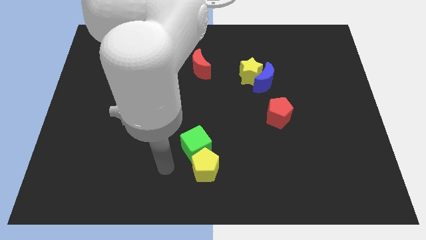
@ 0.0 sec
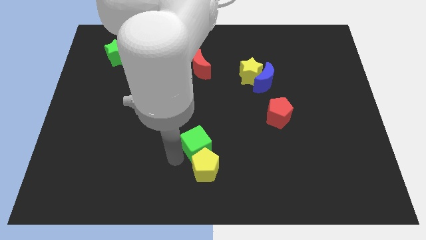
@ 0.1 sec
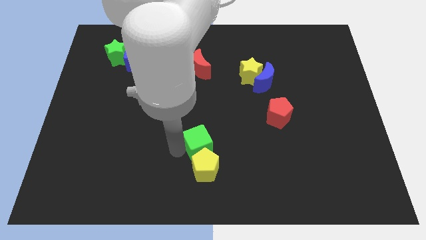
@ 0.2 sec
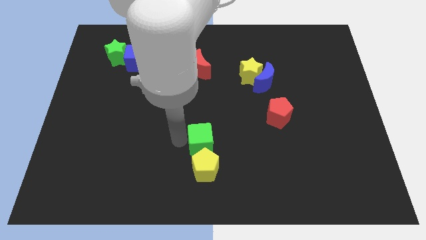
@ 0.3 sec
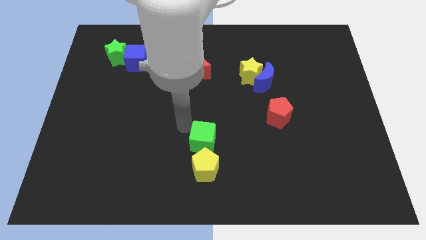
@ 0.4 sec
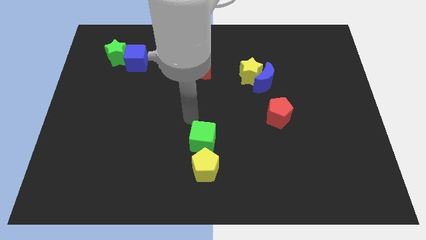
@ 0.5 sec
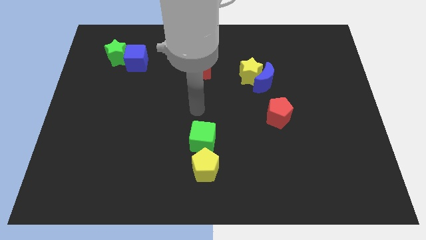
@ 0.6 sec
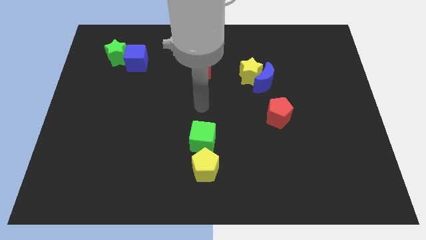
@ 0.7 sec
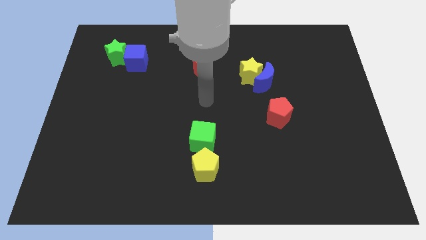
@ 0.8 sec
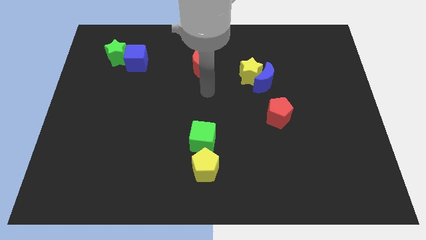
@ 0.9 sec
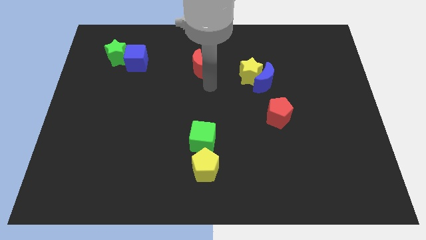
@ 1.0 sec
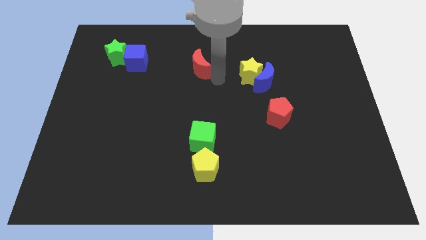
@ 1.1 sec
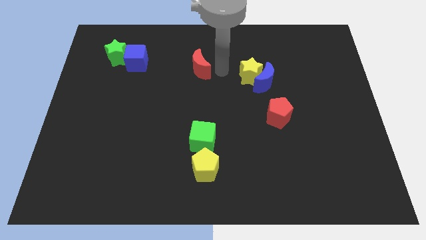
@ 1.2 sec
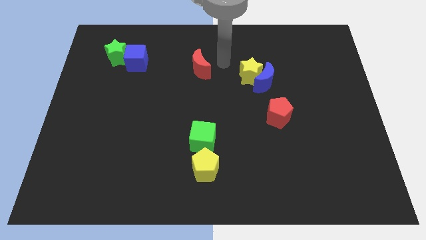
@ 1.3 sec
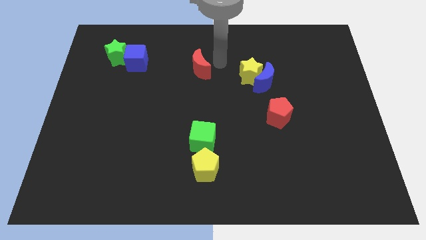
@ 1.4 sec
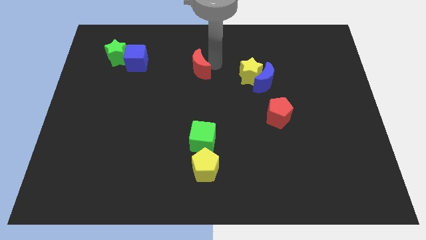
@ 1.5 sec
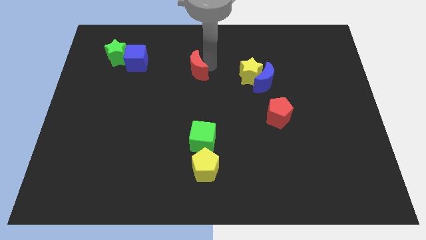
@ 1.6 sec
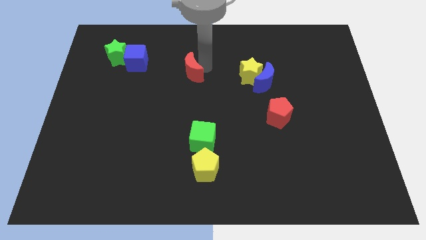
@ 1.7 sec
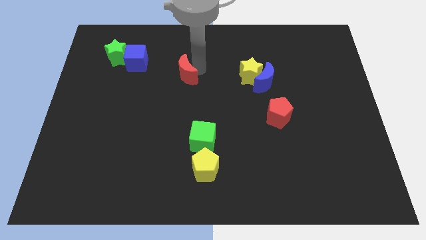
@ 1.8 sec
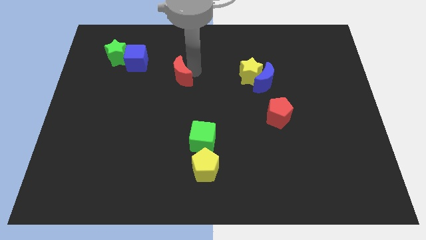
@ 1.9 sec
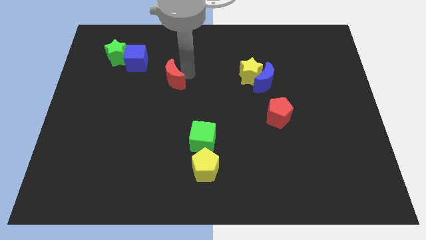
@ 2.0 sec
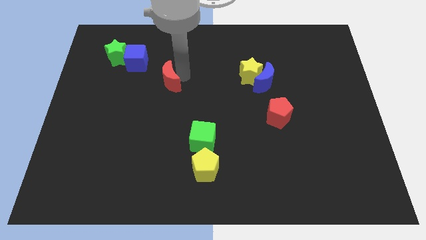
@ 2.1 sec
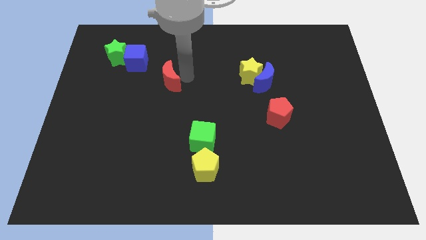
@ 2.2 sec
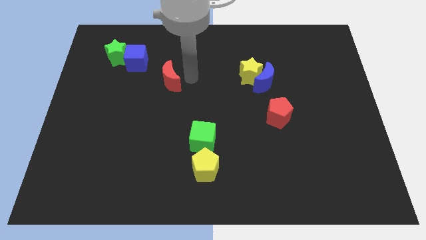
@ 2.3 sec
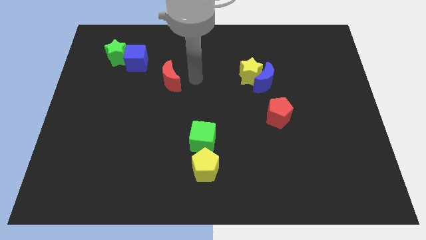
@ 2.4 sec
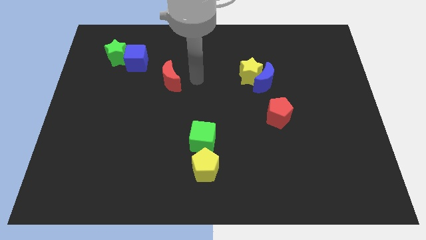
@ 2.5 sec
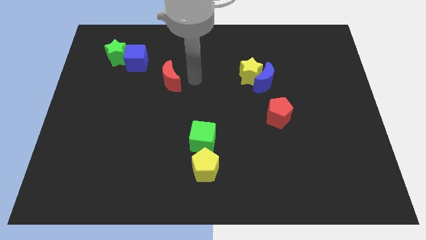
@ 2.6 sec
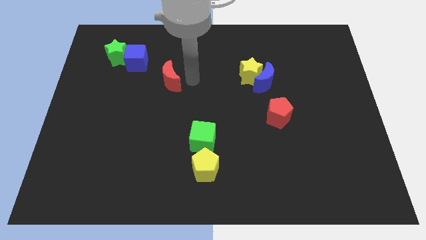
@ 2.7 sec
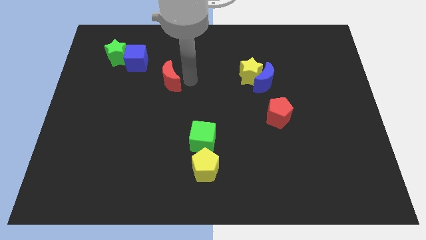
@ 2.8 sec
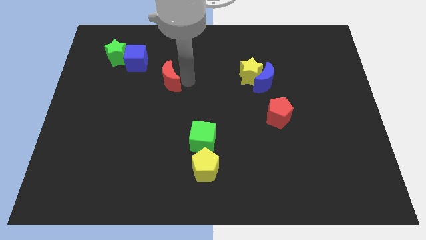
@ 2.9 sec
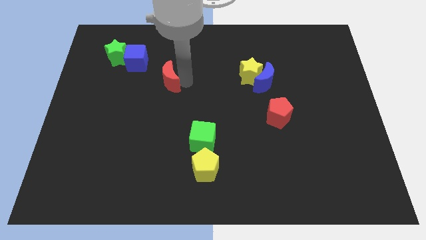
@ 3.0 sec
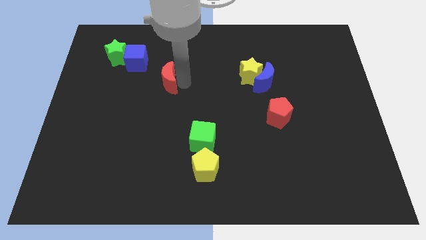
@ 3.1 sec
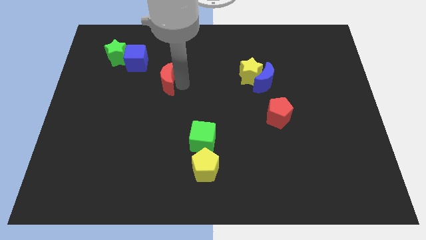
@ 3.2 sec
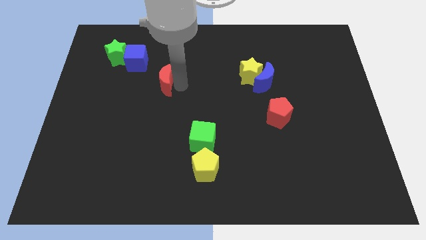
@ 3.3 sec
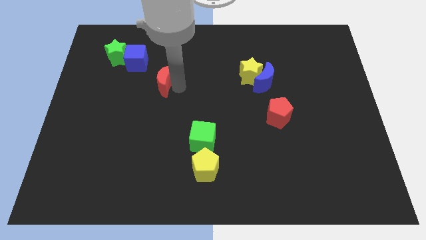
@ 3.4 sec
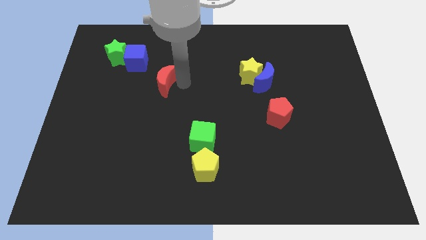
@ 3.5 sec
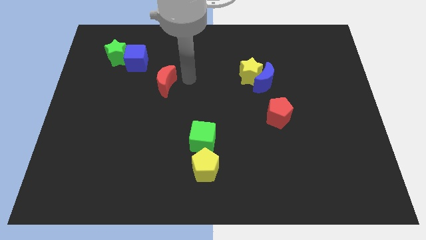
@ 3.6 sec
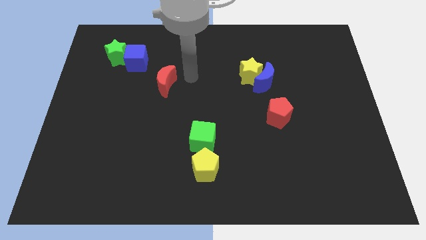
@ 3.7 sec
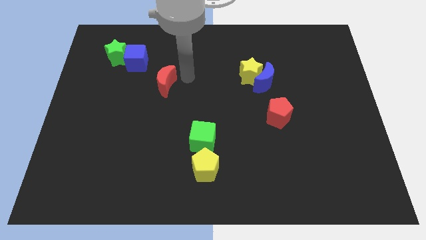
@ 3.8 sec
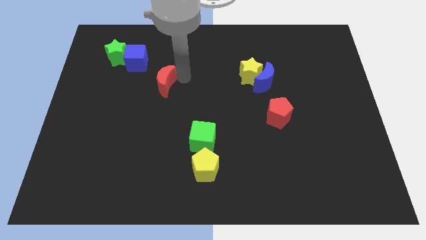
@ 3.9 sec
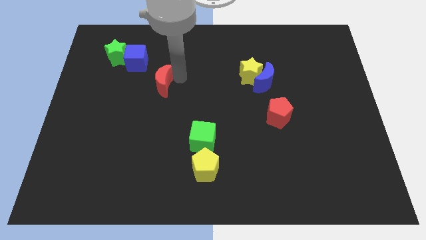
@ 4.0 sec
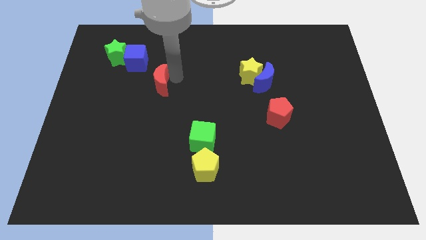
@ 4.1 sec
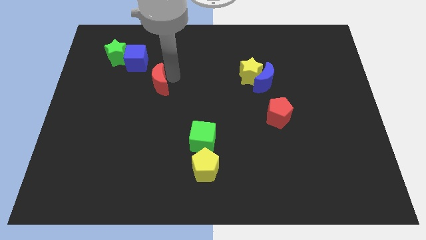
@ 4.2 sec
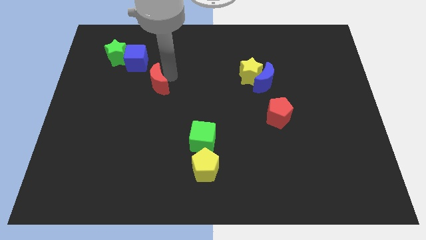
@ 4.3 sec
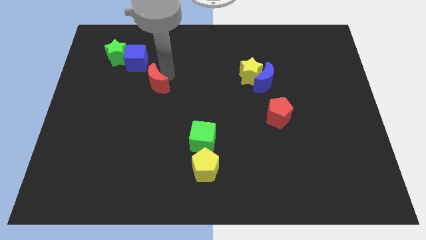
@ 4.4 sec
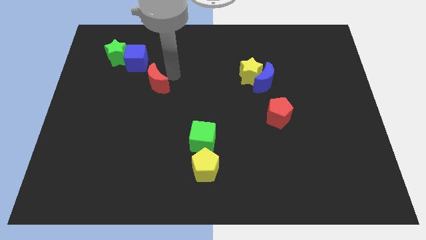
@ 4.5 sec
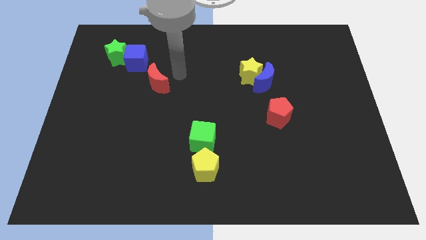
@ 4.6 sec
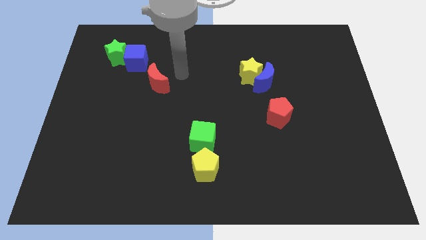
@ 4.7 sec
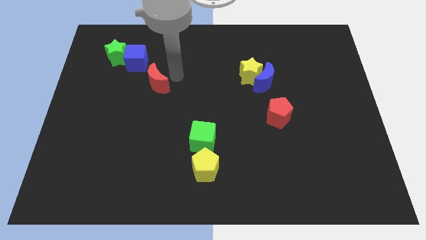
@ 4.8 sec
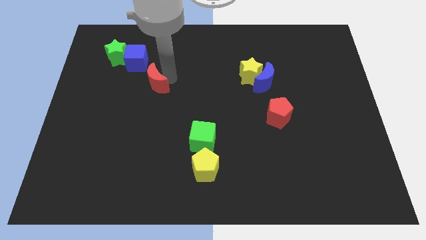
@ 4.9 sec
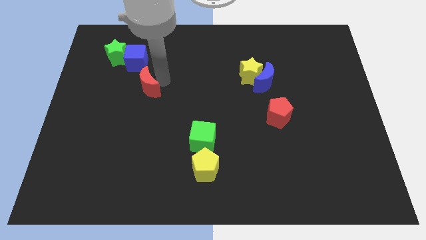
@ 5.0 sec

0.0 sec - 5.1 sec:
move the red moon below the blue cube

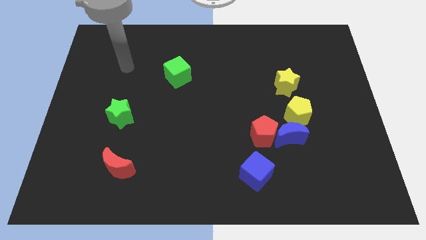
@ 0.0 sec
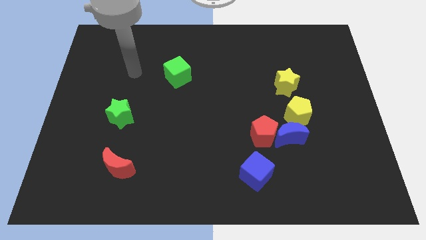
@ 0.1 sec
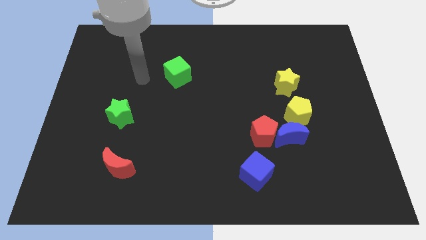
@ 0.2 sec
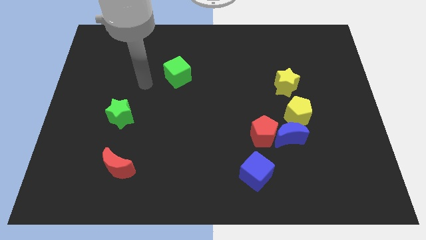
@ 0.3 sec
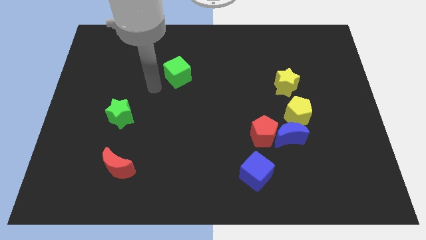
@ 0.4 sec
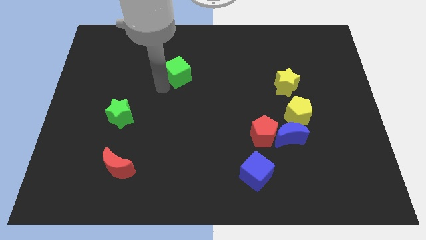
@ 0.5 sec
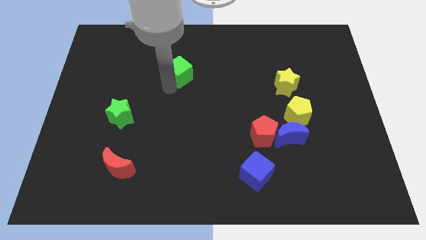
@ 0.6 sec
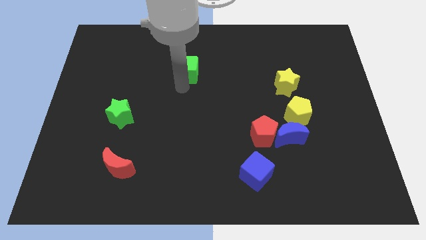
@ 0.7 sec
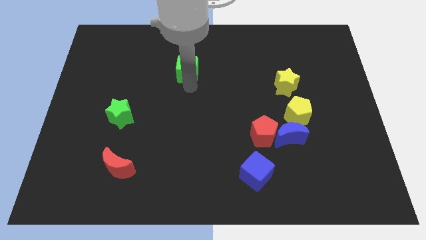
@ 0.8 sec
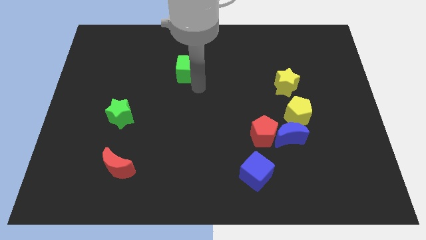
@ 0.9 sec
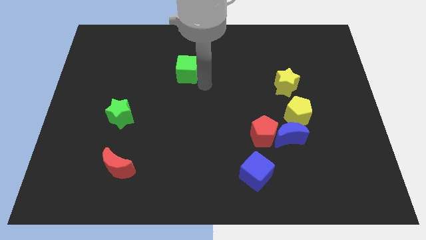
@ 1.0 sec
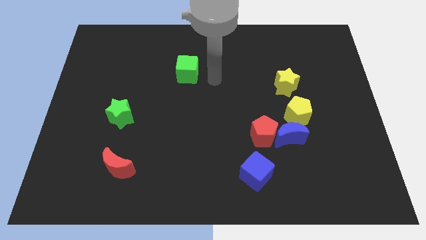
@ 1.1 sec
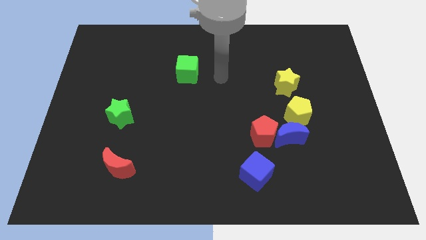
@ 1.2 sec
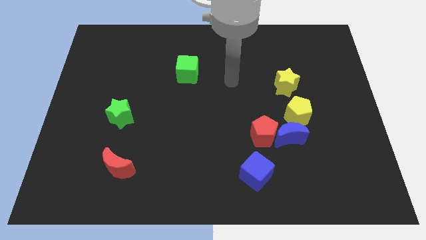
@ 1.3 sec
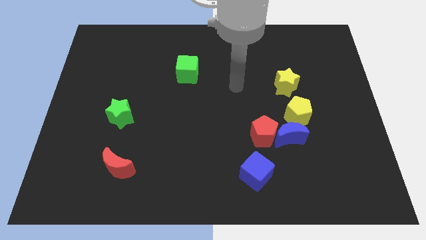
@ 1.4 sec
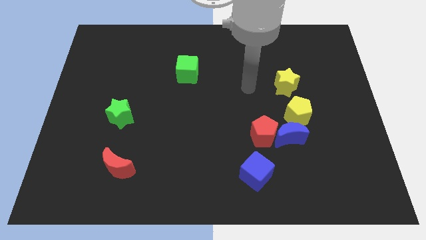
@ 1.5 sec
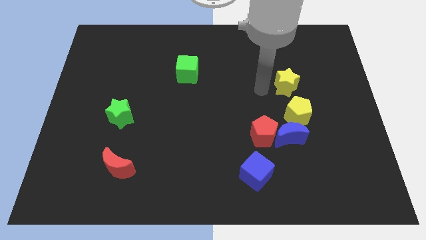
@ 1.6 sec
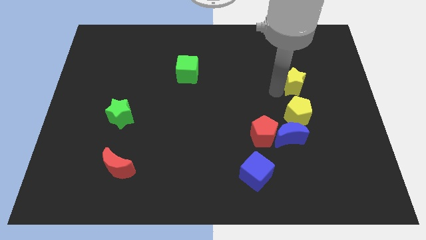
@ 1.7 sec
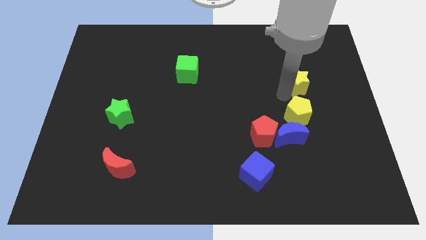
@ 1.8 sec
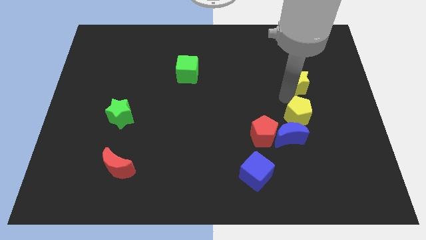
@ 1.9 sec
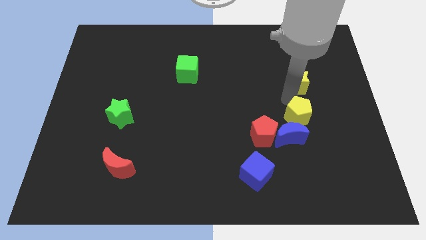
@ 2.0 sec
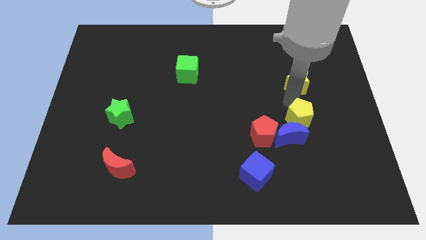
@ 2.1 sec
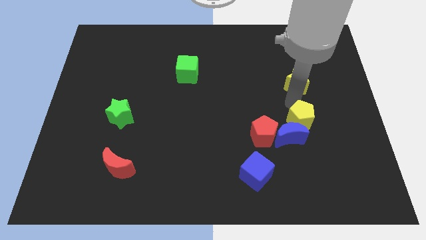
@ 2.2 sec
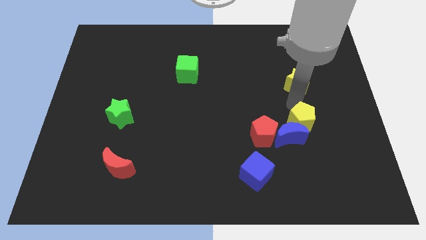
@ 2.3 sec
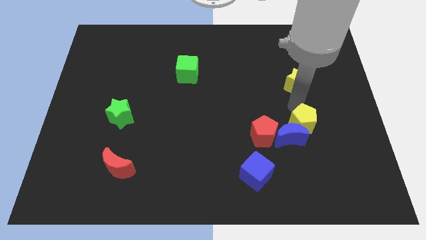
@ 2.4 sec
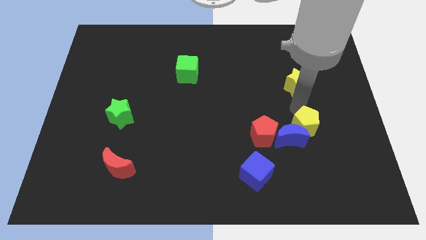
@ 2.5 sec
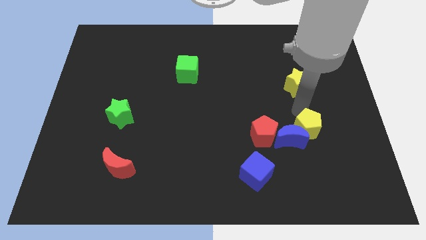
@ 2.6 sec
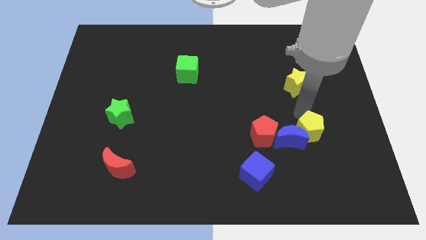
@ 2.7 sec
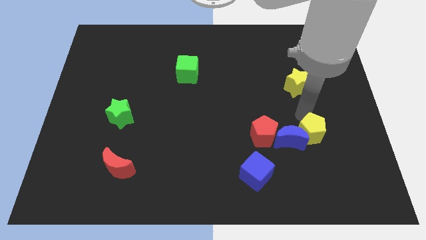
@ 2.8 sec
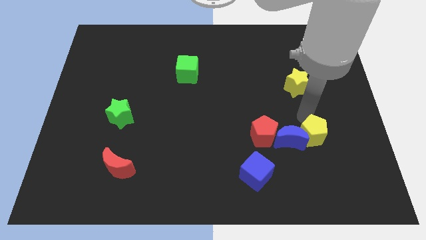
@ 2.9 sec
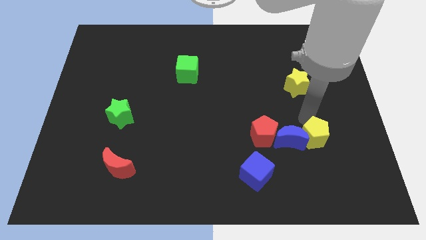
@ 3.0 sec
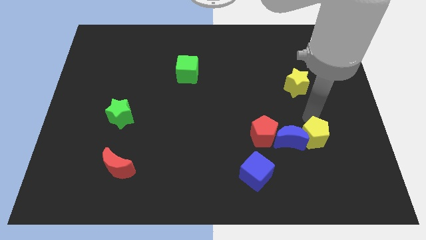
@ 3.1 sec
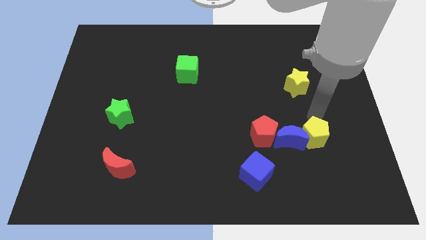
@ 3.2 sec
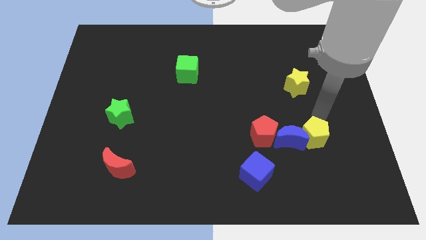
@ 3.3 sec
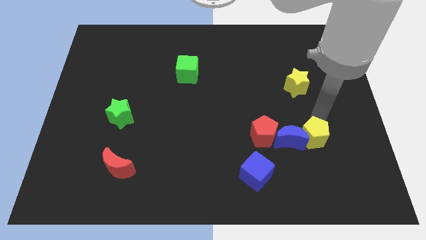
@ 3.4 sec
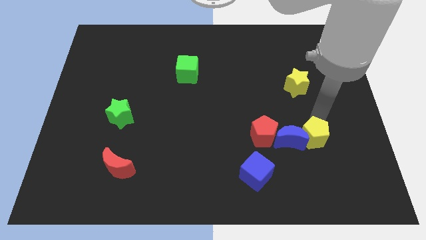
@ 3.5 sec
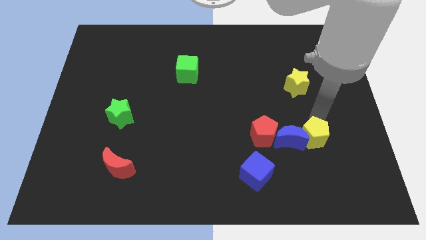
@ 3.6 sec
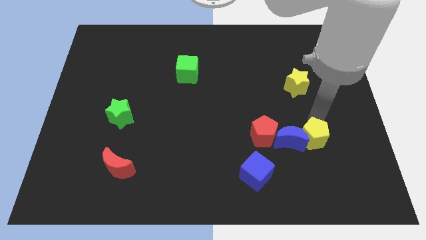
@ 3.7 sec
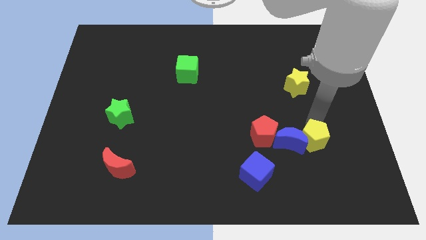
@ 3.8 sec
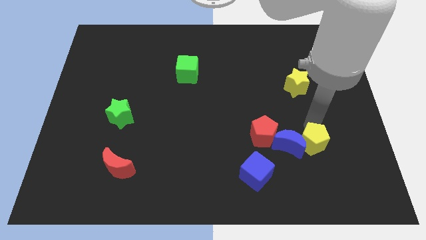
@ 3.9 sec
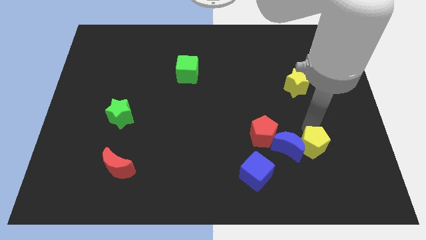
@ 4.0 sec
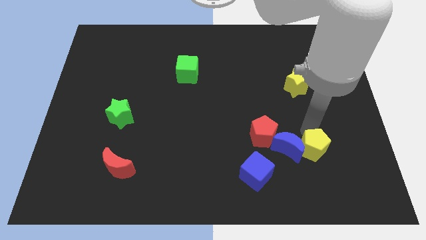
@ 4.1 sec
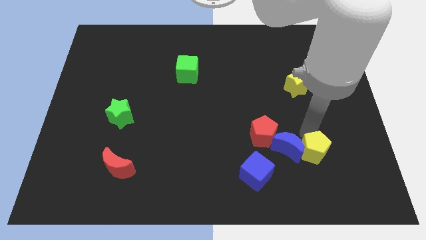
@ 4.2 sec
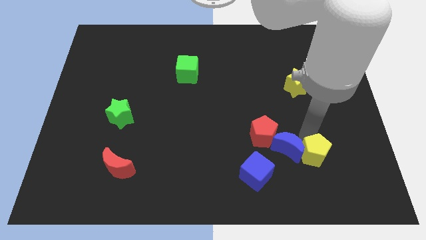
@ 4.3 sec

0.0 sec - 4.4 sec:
push the yellow pentagon to the right side of the blue cube
